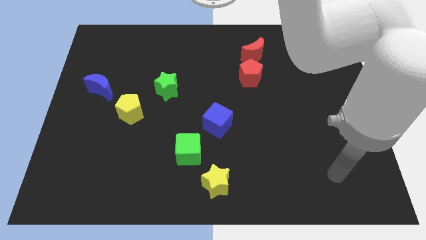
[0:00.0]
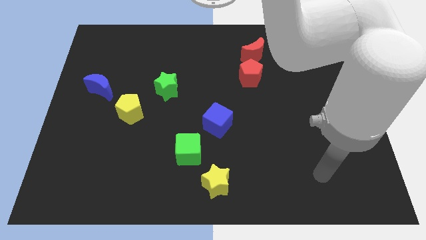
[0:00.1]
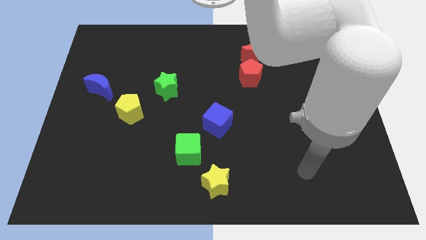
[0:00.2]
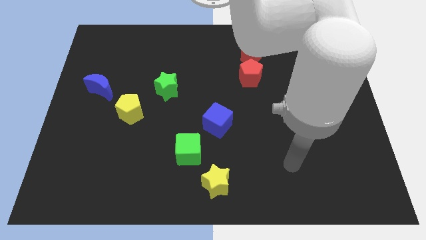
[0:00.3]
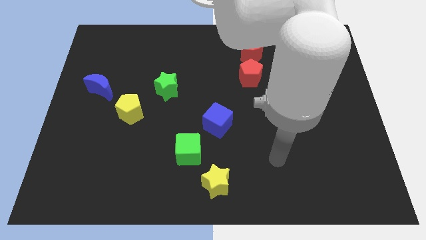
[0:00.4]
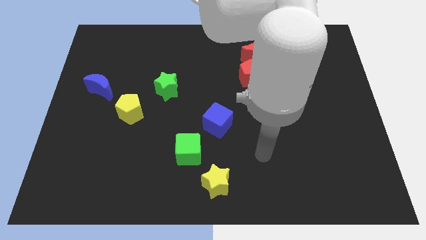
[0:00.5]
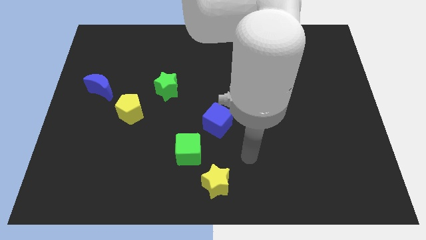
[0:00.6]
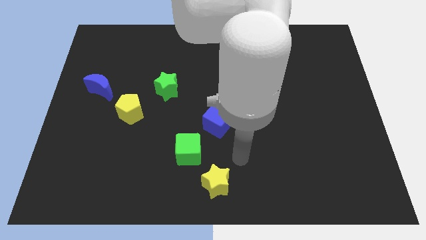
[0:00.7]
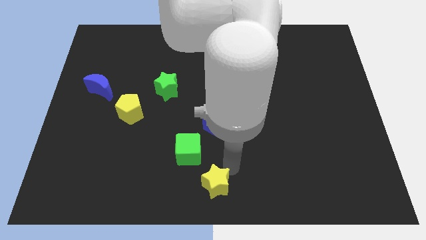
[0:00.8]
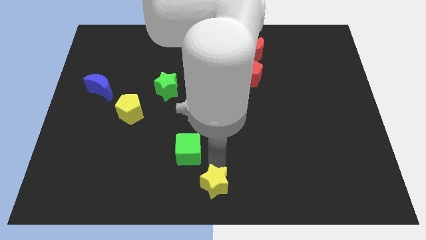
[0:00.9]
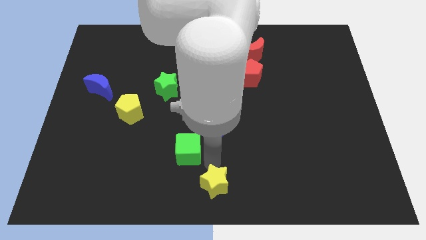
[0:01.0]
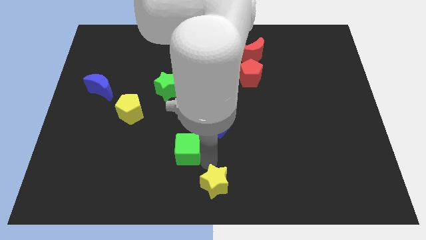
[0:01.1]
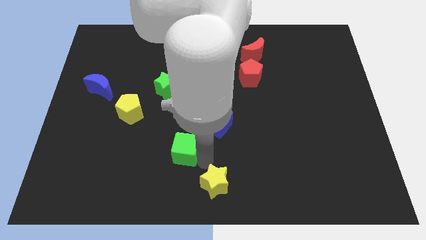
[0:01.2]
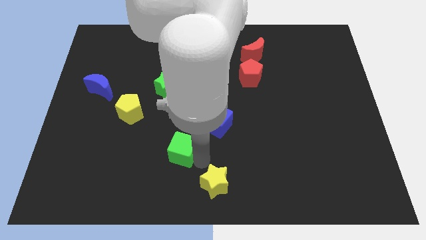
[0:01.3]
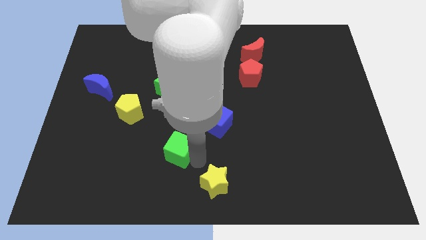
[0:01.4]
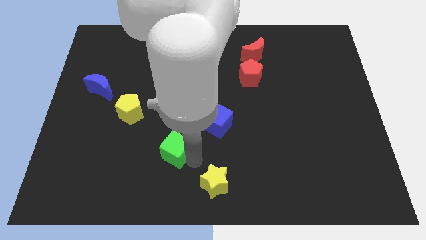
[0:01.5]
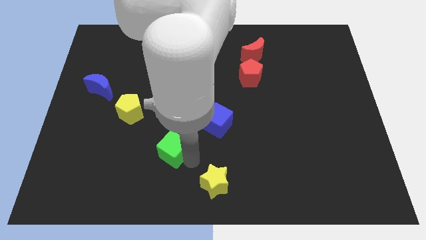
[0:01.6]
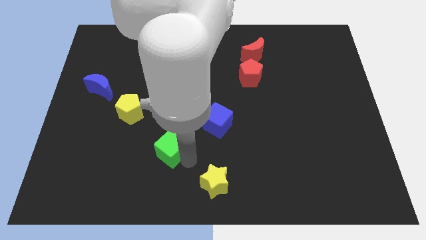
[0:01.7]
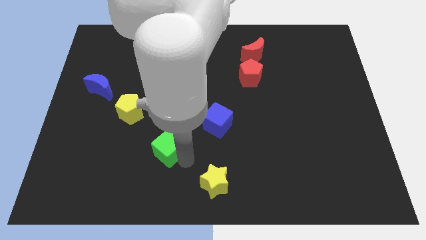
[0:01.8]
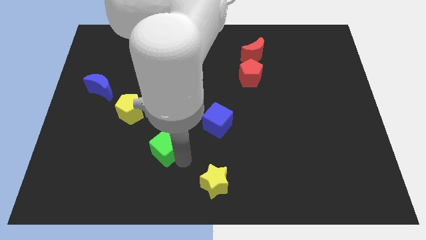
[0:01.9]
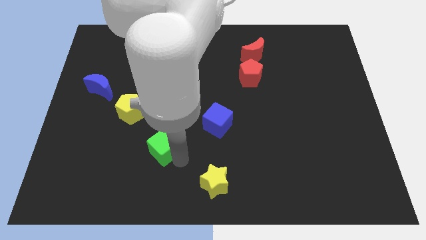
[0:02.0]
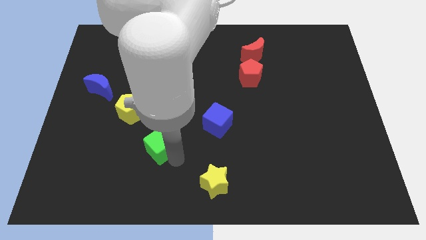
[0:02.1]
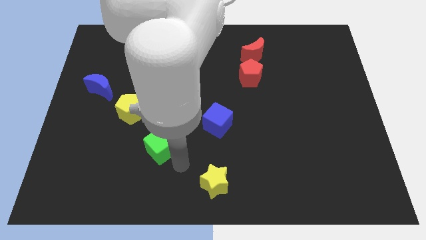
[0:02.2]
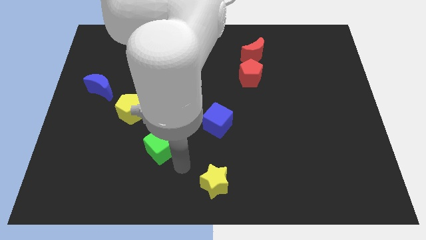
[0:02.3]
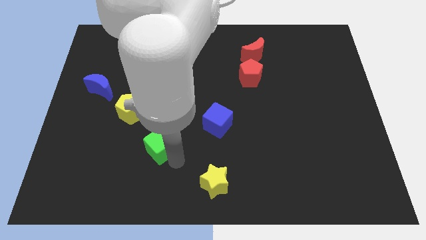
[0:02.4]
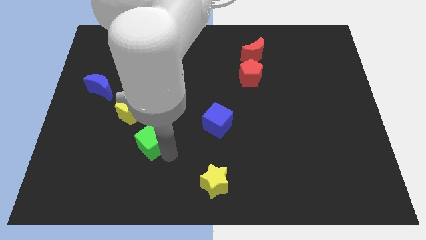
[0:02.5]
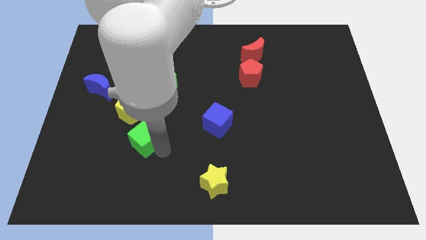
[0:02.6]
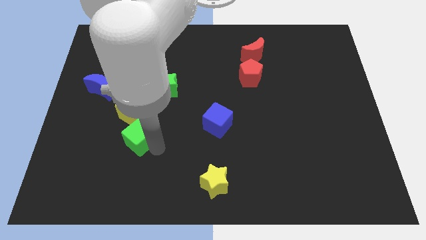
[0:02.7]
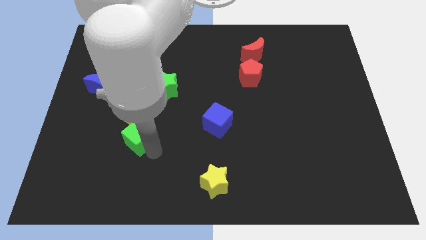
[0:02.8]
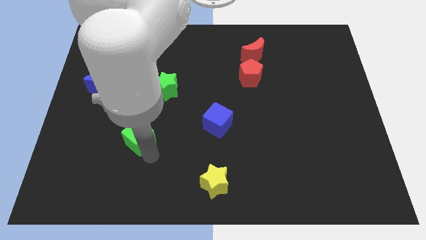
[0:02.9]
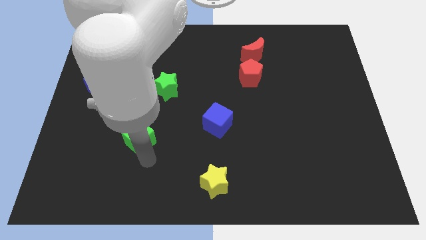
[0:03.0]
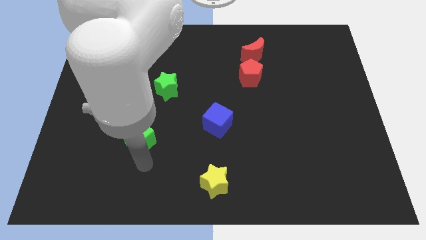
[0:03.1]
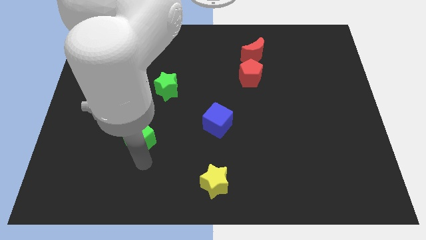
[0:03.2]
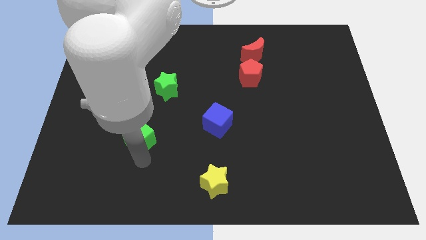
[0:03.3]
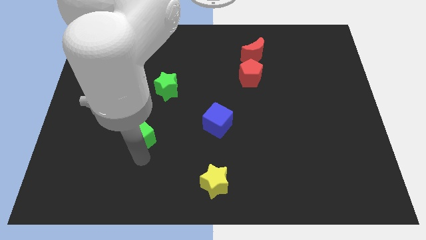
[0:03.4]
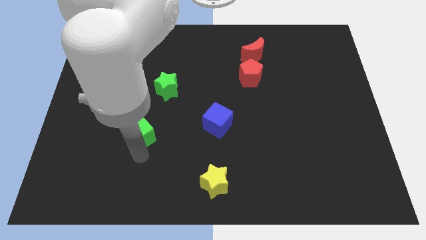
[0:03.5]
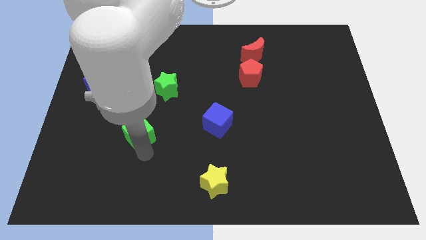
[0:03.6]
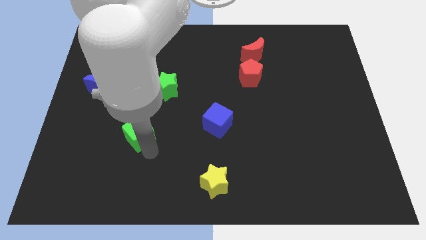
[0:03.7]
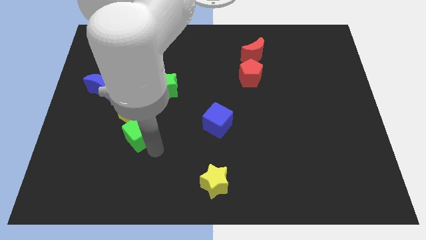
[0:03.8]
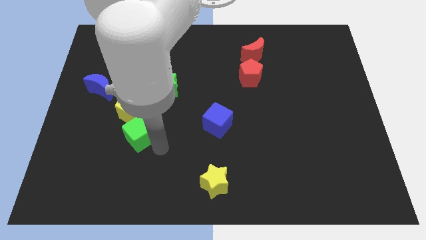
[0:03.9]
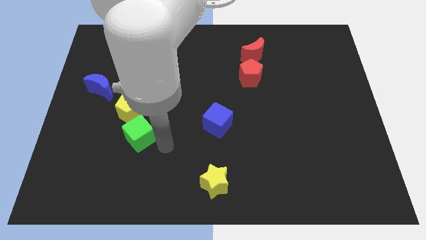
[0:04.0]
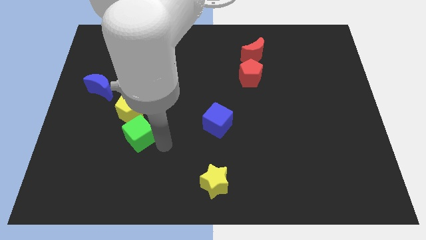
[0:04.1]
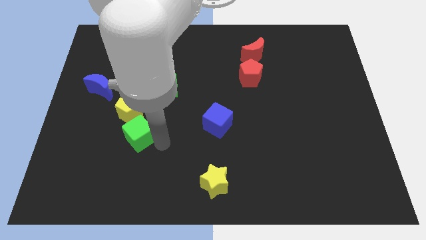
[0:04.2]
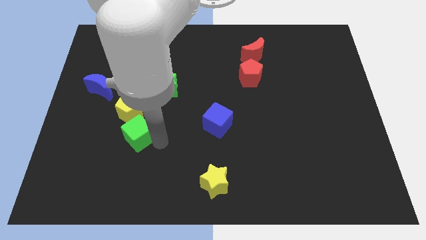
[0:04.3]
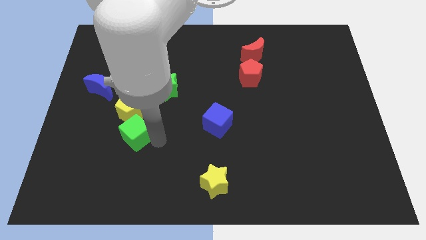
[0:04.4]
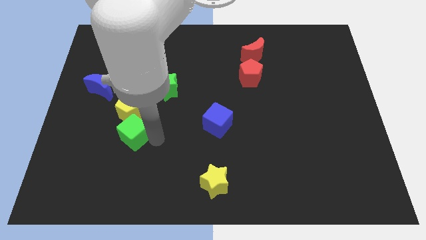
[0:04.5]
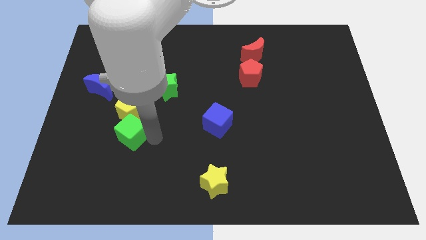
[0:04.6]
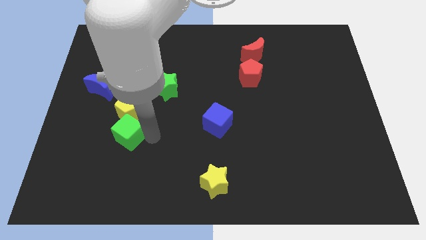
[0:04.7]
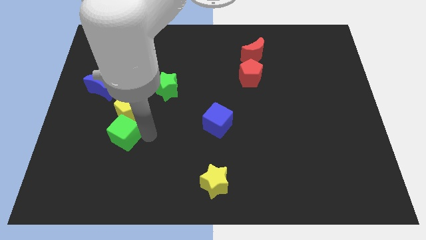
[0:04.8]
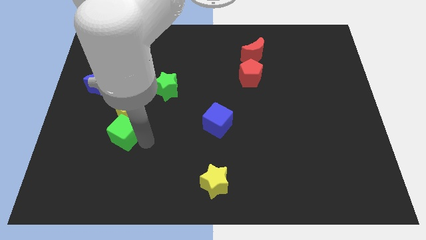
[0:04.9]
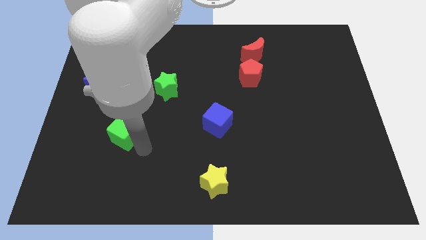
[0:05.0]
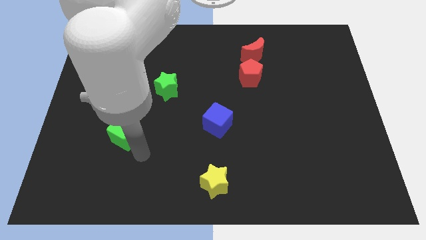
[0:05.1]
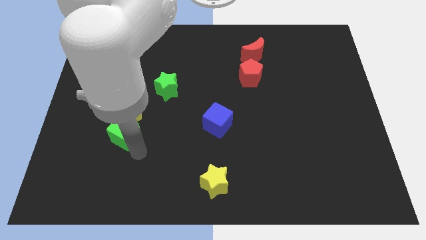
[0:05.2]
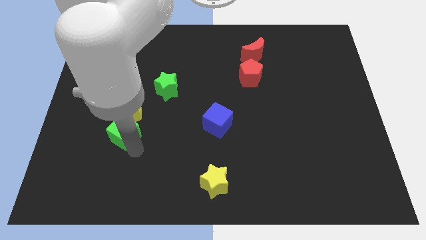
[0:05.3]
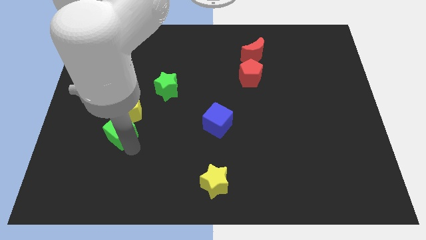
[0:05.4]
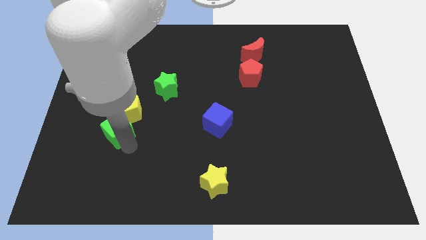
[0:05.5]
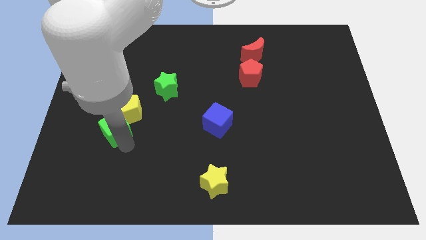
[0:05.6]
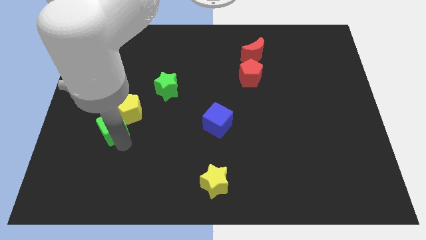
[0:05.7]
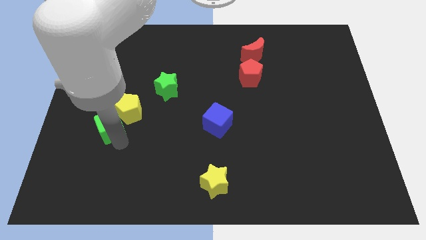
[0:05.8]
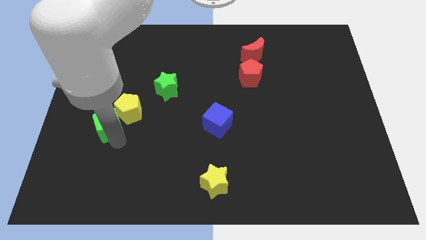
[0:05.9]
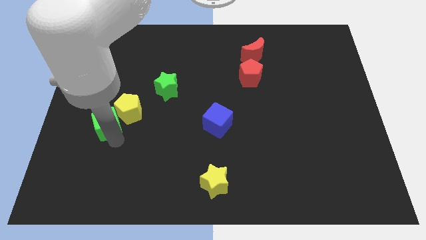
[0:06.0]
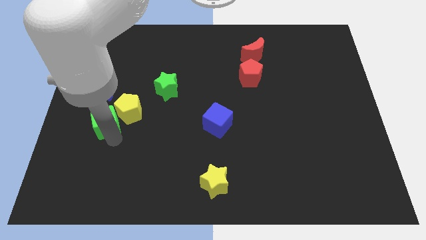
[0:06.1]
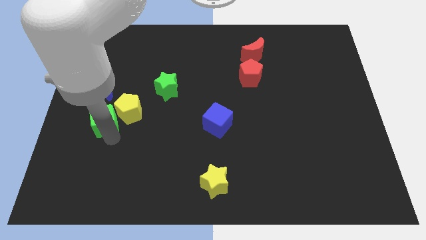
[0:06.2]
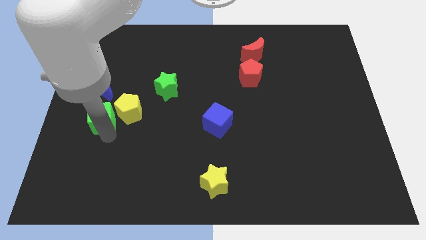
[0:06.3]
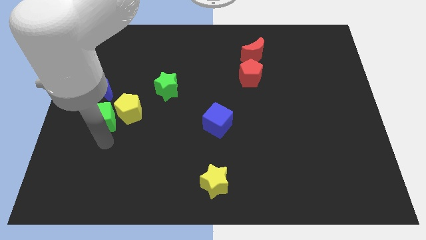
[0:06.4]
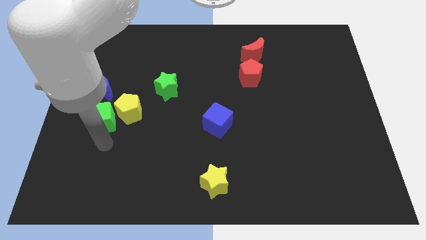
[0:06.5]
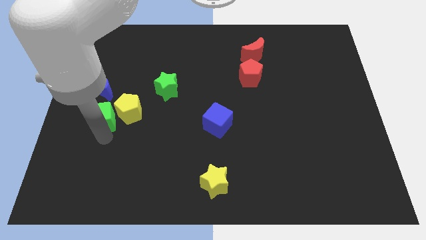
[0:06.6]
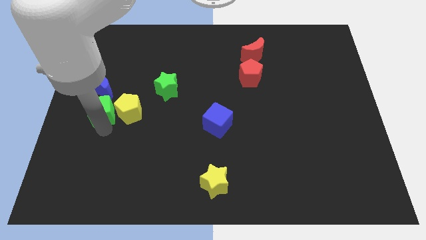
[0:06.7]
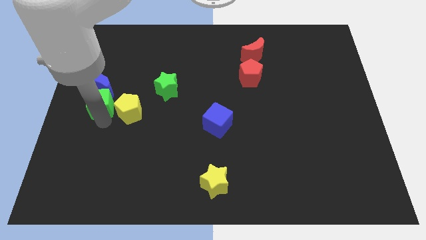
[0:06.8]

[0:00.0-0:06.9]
put the green cube next to the blue moon

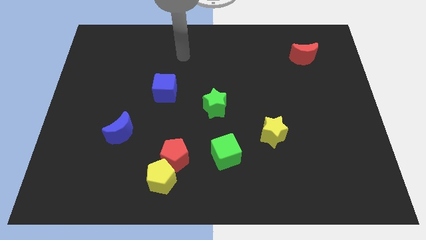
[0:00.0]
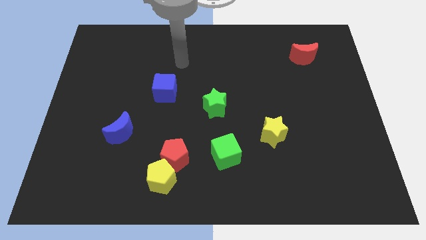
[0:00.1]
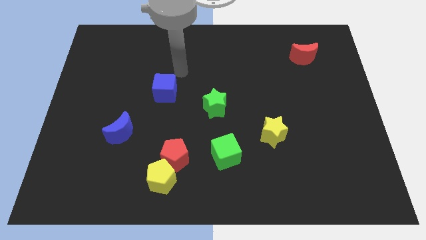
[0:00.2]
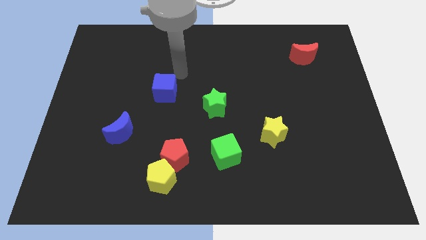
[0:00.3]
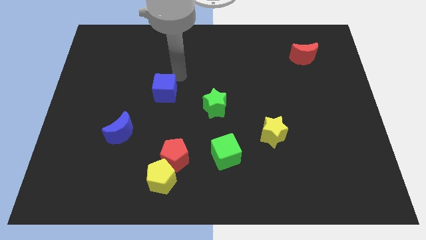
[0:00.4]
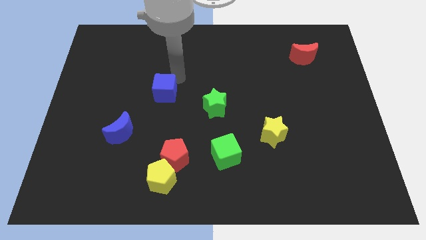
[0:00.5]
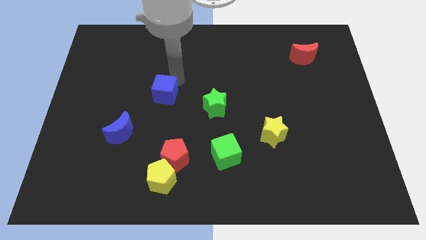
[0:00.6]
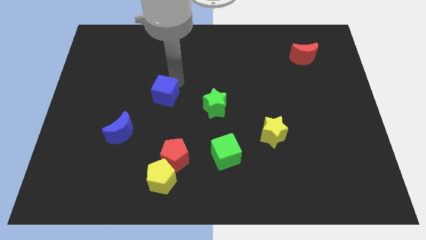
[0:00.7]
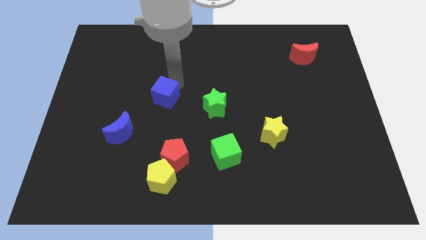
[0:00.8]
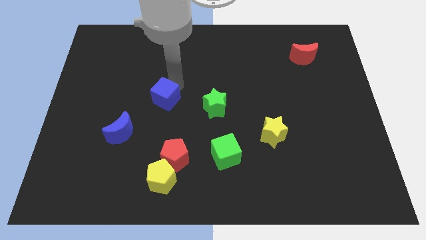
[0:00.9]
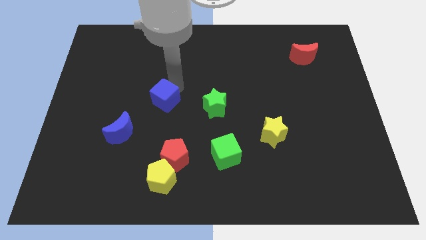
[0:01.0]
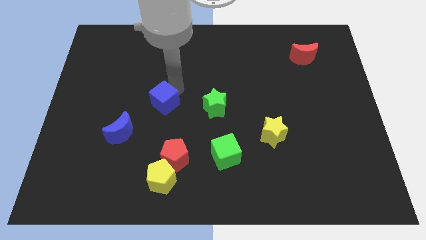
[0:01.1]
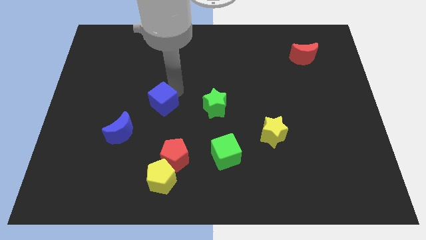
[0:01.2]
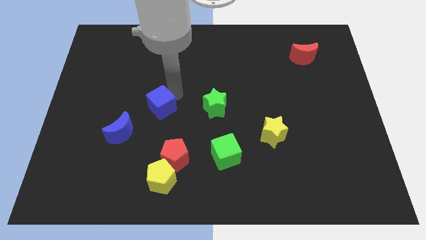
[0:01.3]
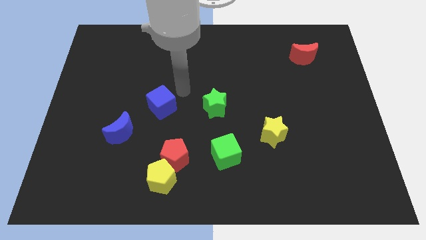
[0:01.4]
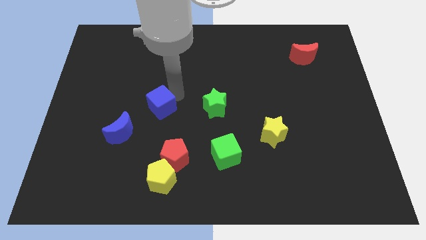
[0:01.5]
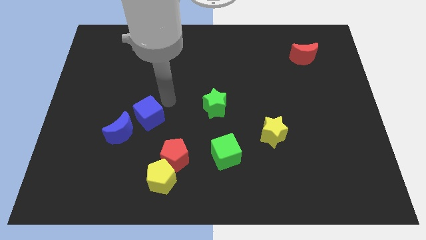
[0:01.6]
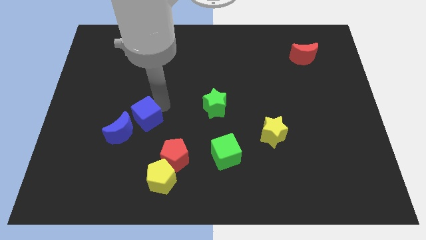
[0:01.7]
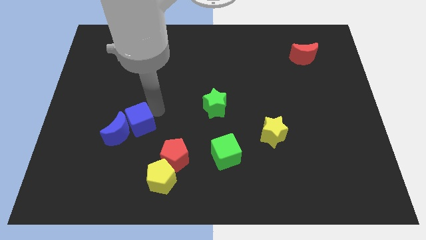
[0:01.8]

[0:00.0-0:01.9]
push the blue cube next to the blue moon
